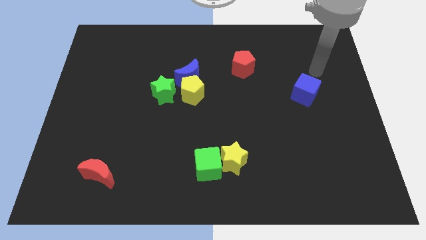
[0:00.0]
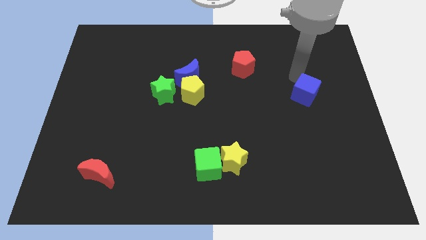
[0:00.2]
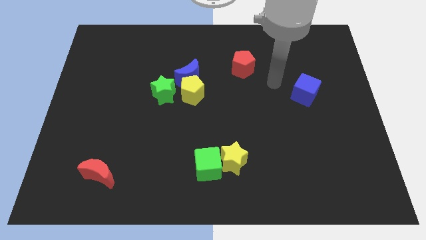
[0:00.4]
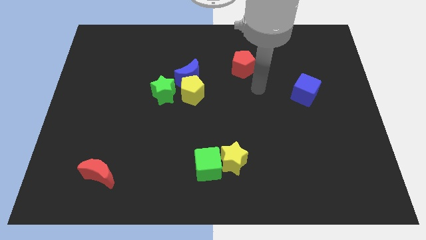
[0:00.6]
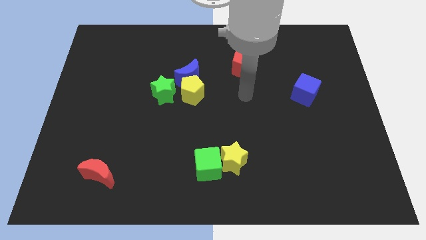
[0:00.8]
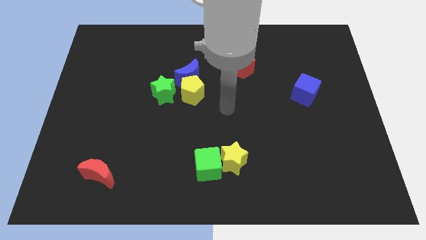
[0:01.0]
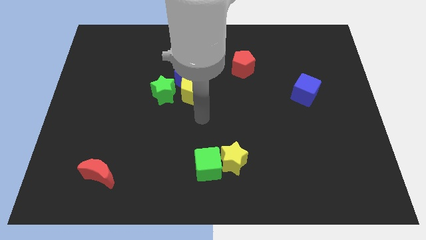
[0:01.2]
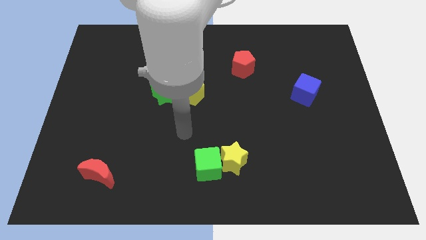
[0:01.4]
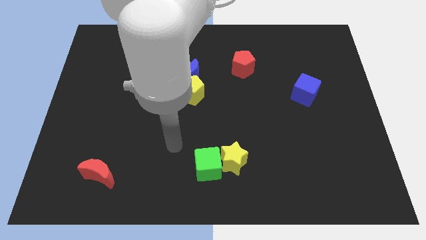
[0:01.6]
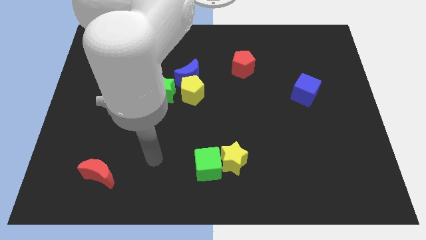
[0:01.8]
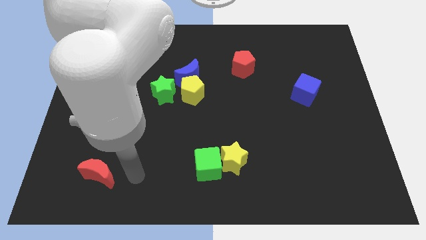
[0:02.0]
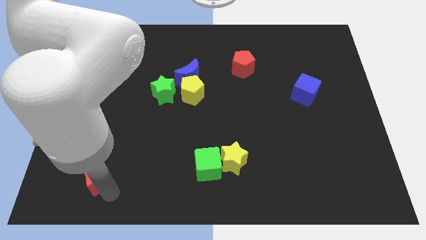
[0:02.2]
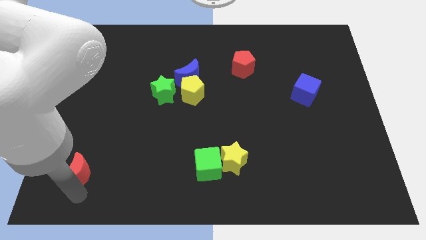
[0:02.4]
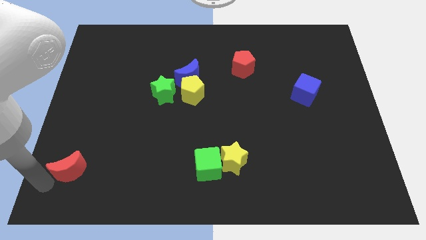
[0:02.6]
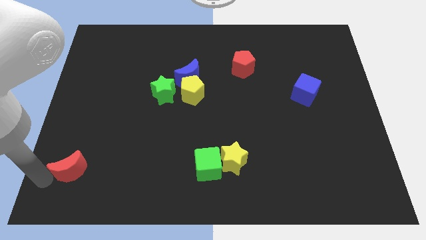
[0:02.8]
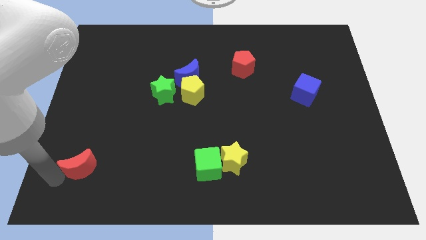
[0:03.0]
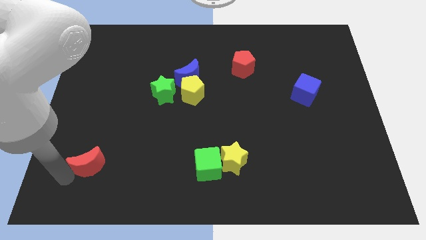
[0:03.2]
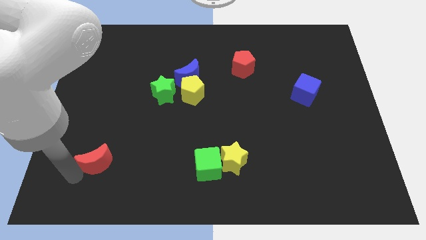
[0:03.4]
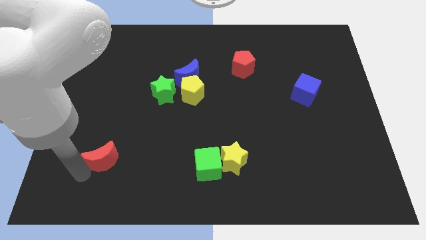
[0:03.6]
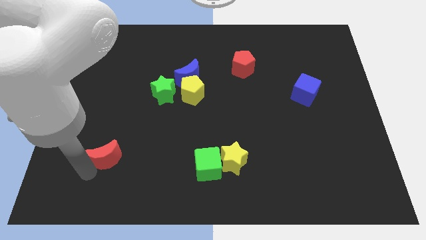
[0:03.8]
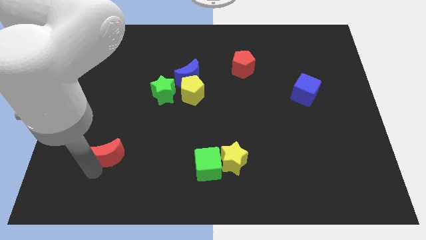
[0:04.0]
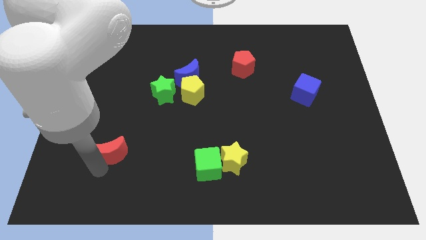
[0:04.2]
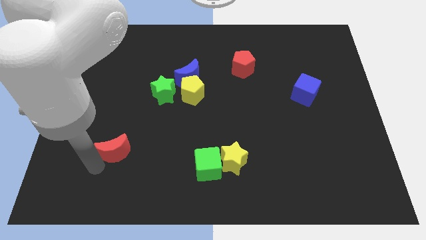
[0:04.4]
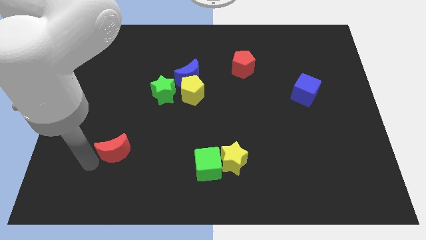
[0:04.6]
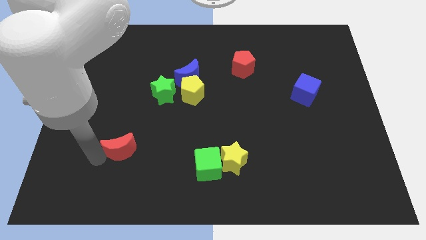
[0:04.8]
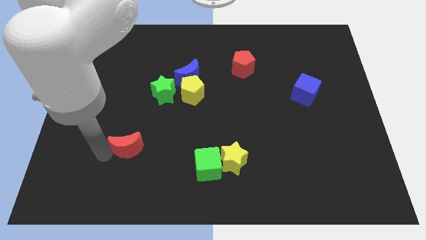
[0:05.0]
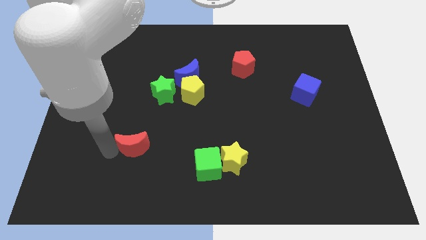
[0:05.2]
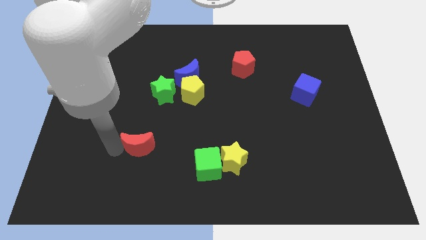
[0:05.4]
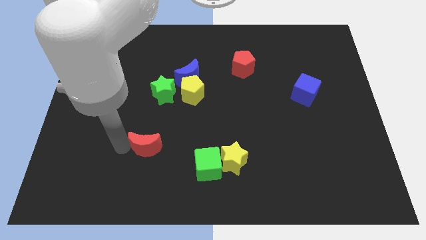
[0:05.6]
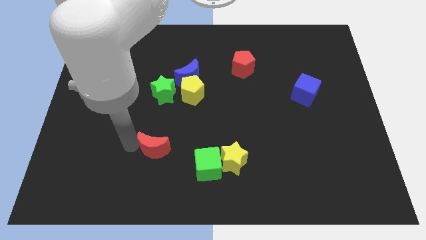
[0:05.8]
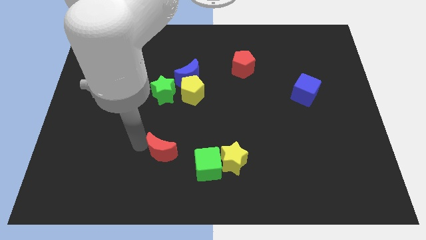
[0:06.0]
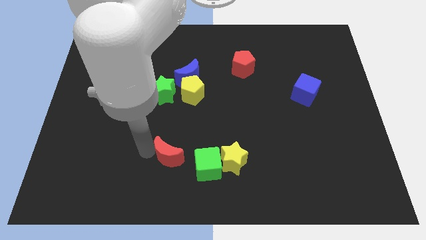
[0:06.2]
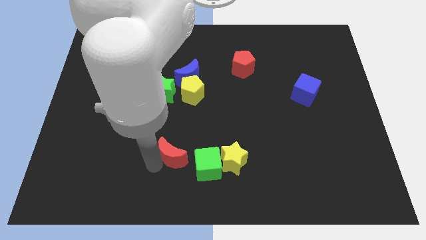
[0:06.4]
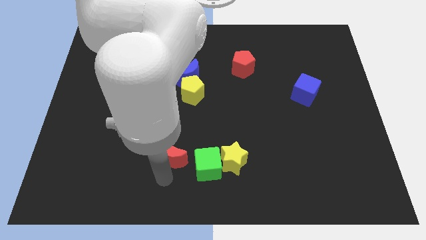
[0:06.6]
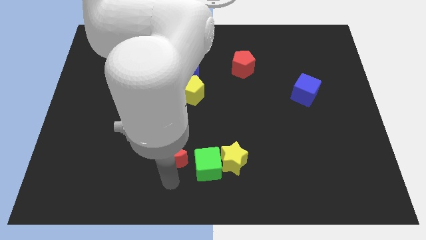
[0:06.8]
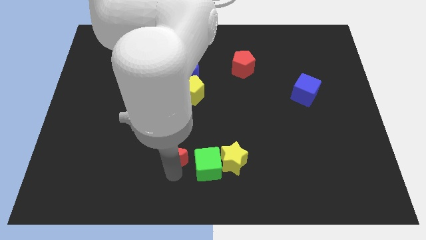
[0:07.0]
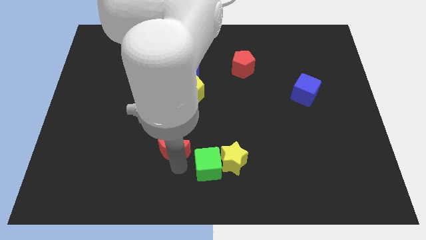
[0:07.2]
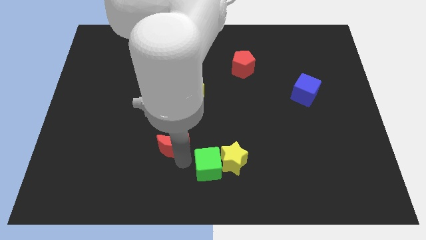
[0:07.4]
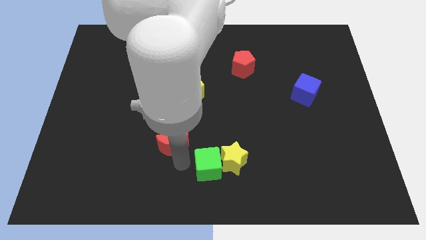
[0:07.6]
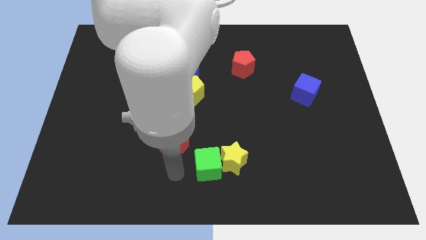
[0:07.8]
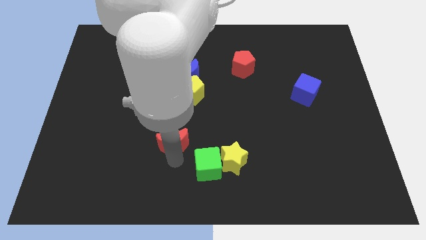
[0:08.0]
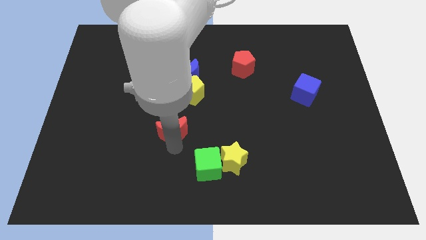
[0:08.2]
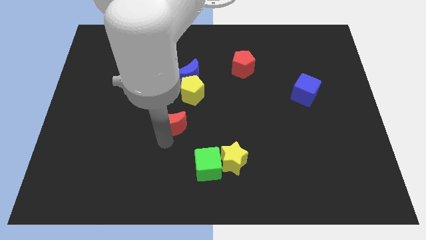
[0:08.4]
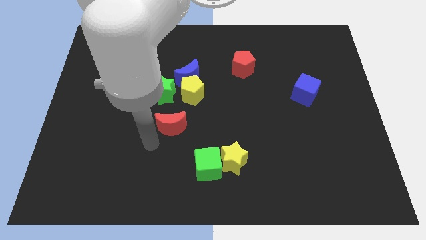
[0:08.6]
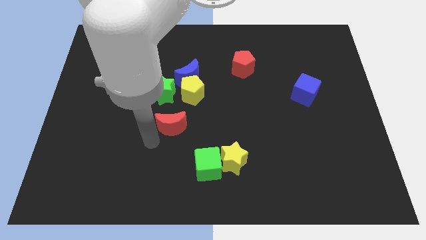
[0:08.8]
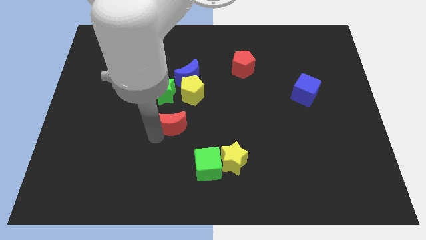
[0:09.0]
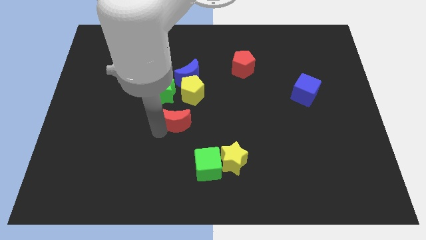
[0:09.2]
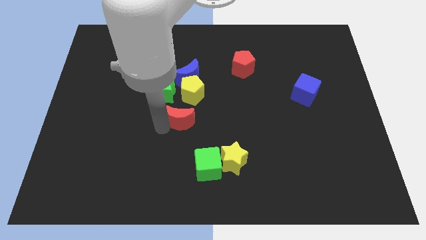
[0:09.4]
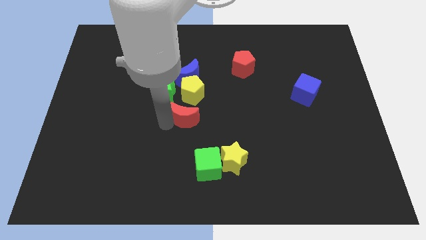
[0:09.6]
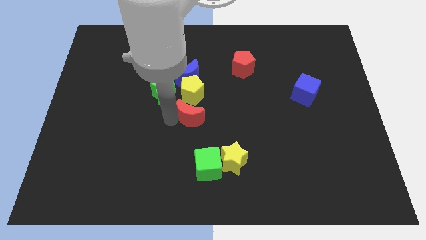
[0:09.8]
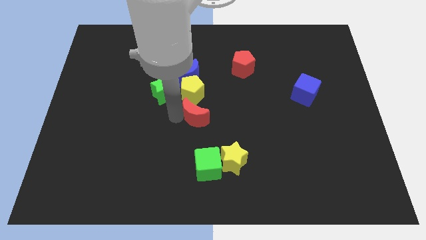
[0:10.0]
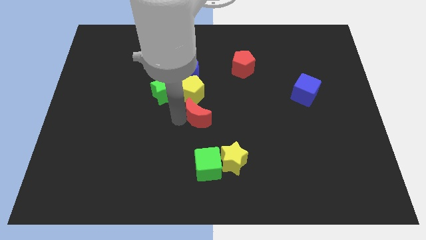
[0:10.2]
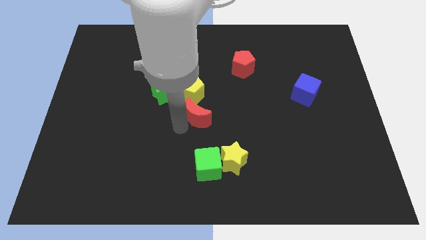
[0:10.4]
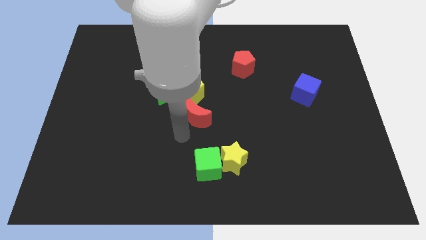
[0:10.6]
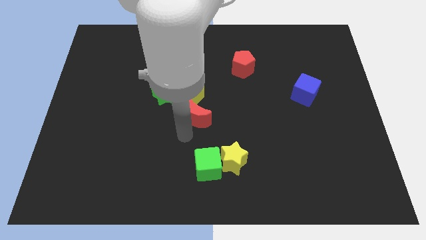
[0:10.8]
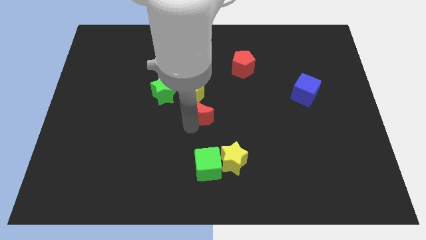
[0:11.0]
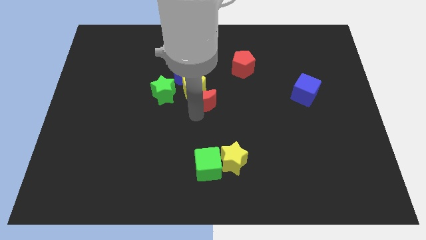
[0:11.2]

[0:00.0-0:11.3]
put the red moon just right of the green star
